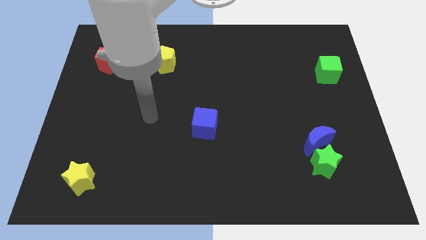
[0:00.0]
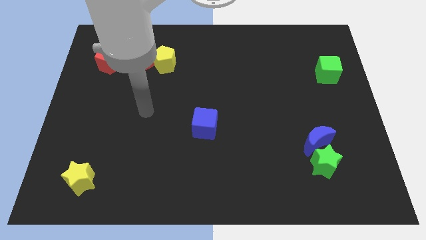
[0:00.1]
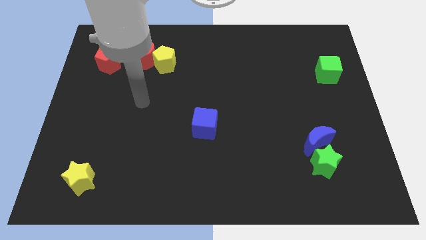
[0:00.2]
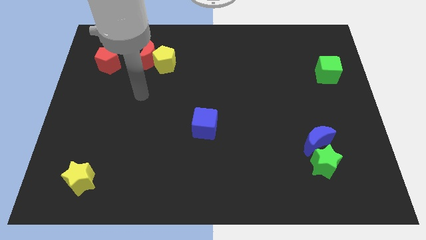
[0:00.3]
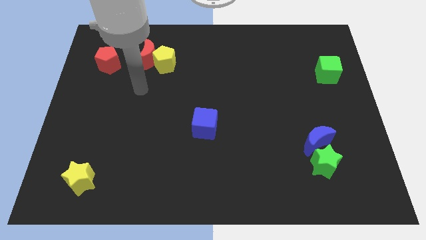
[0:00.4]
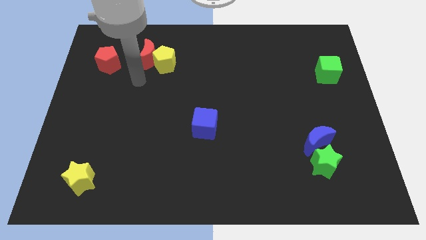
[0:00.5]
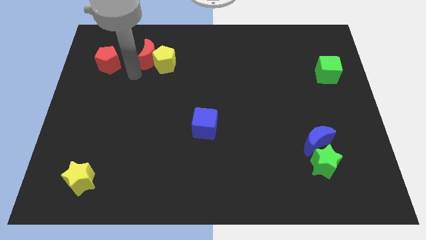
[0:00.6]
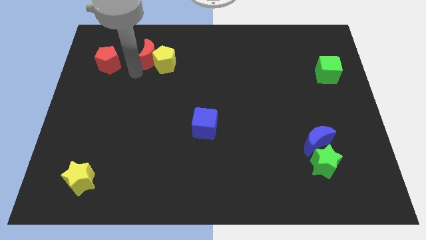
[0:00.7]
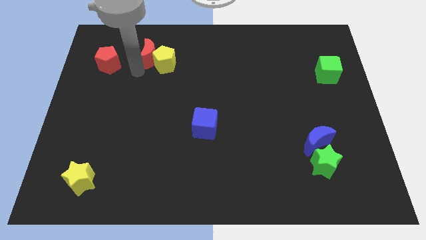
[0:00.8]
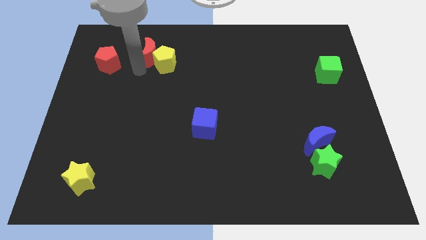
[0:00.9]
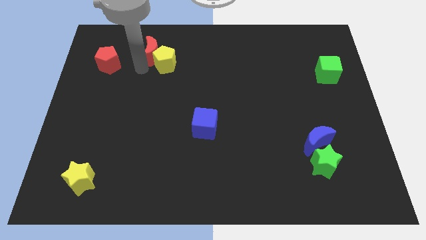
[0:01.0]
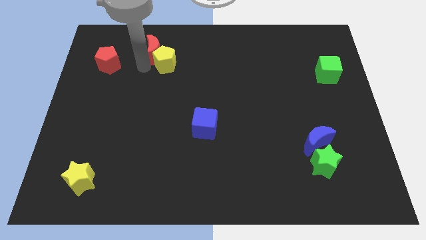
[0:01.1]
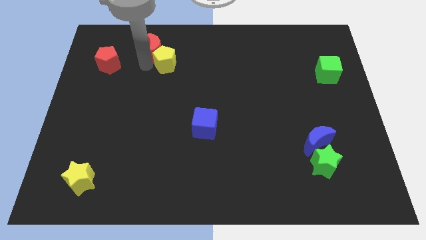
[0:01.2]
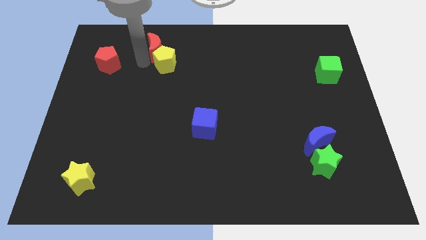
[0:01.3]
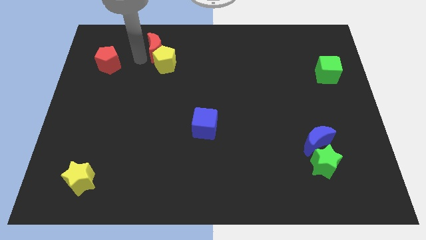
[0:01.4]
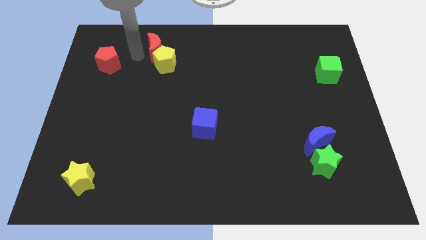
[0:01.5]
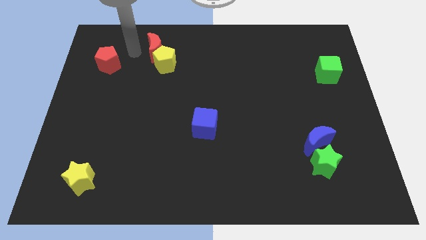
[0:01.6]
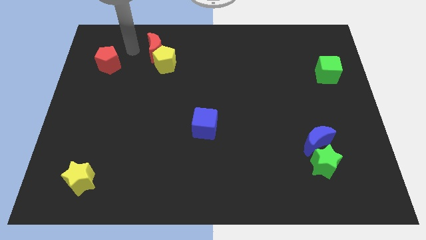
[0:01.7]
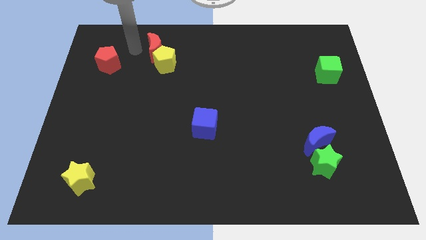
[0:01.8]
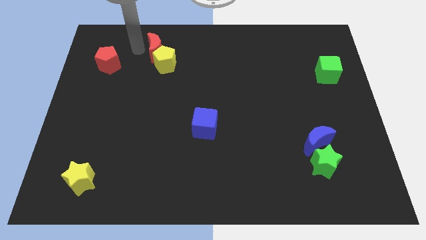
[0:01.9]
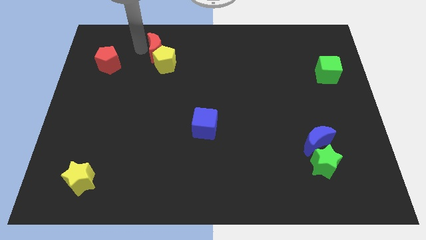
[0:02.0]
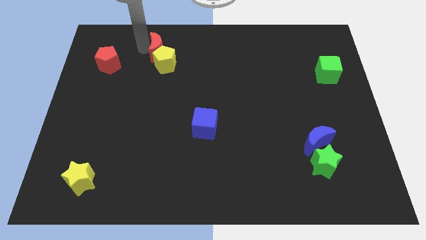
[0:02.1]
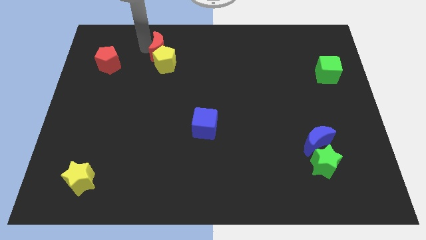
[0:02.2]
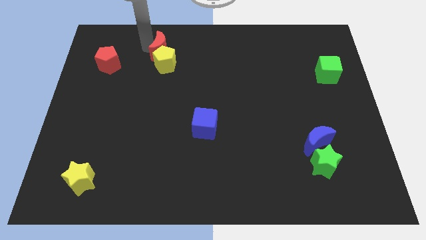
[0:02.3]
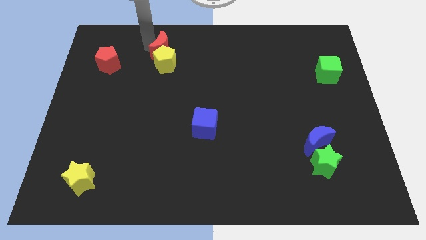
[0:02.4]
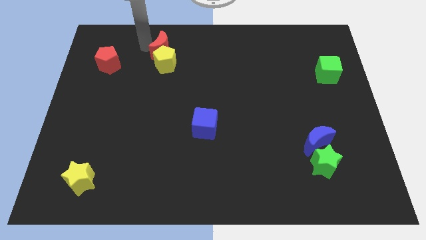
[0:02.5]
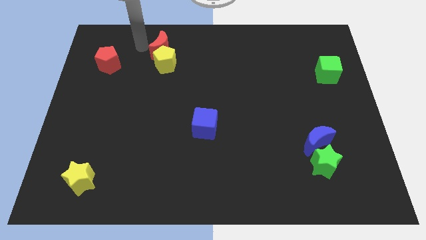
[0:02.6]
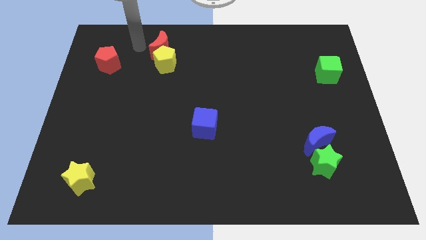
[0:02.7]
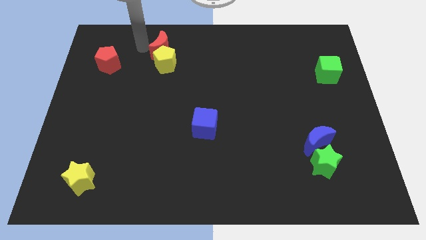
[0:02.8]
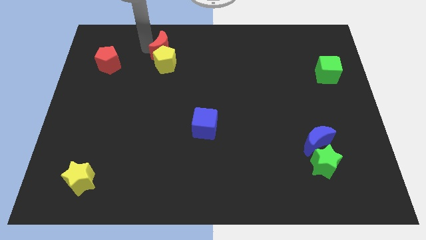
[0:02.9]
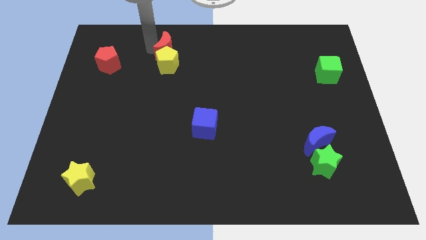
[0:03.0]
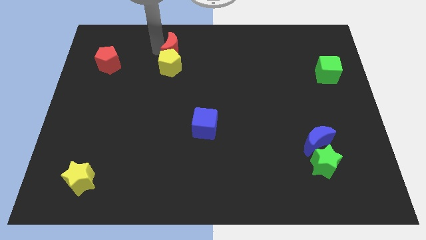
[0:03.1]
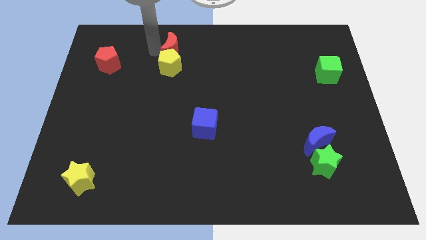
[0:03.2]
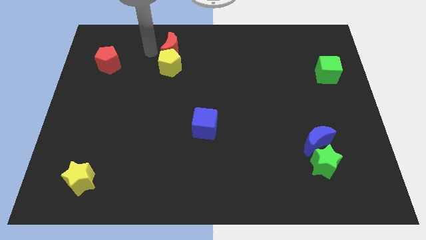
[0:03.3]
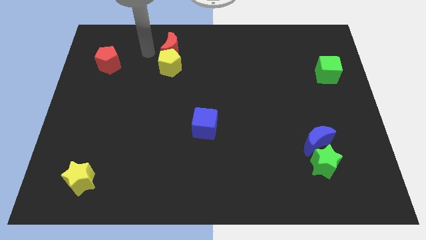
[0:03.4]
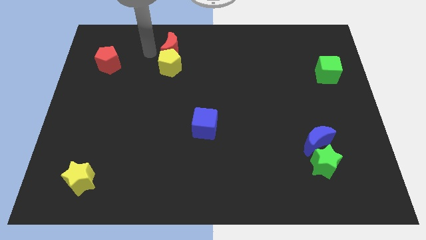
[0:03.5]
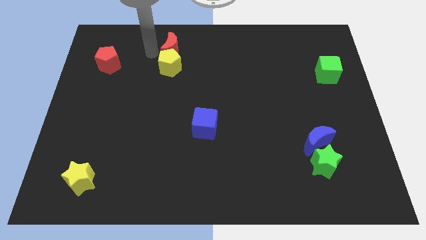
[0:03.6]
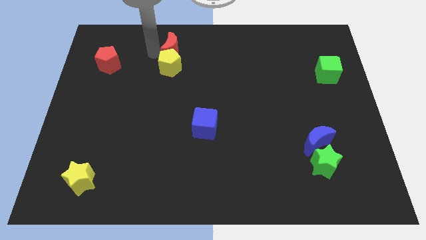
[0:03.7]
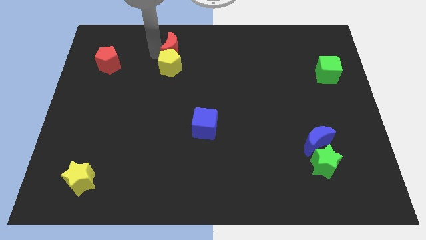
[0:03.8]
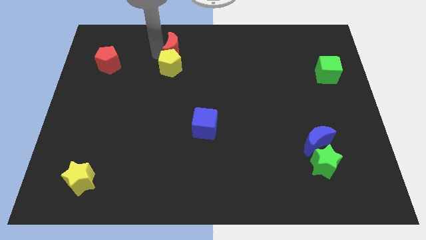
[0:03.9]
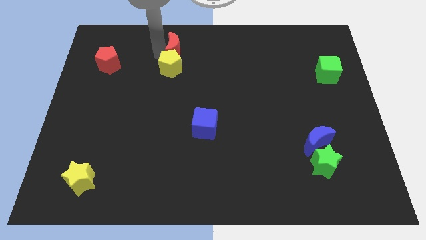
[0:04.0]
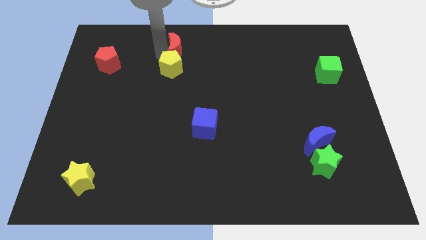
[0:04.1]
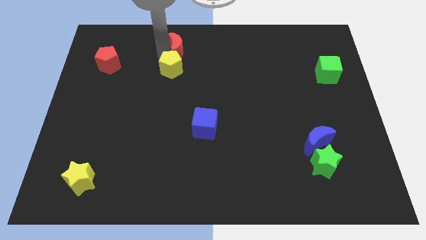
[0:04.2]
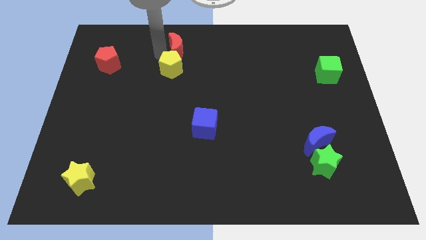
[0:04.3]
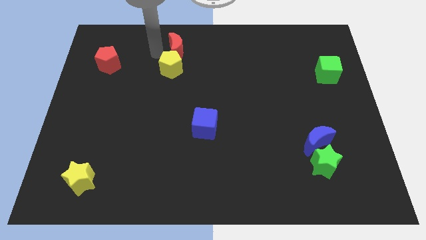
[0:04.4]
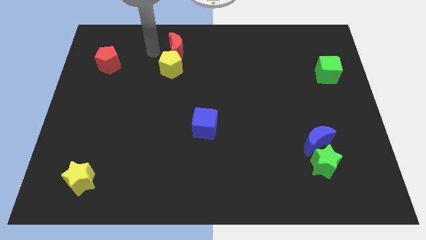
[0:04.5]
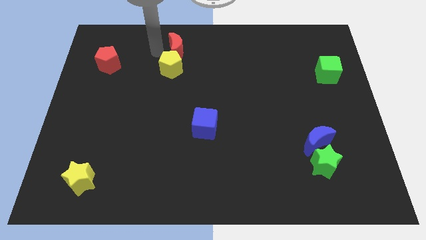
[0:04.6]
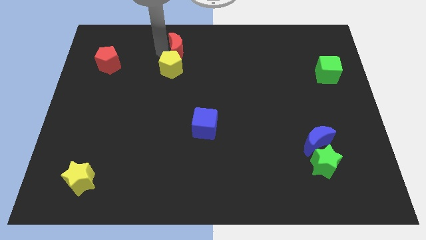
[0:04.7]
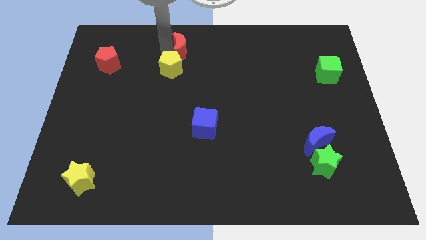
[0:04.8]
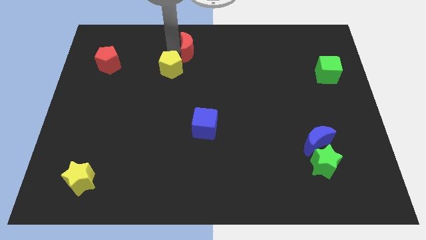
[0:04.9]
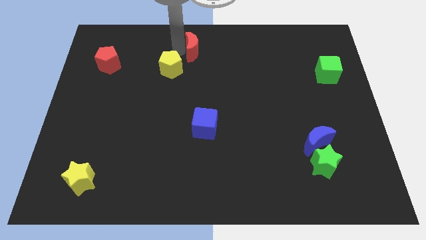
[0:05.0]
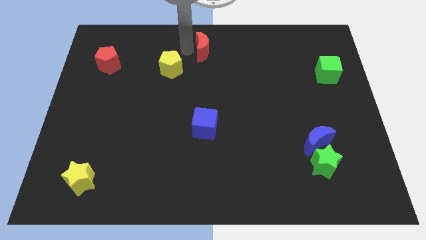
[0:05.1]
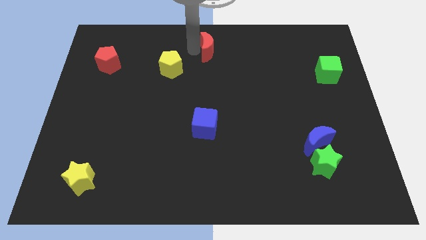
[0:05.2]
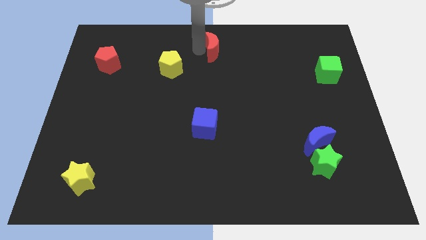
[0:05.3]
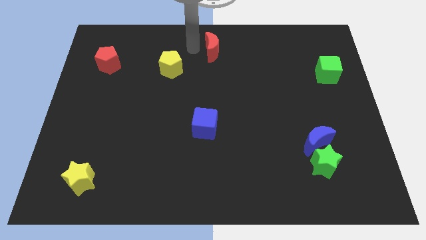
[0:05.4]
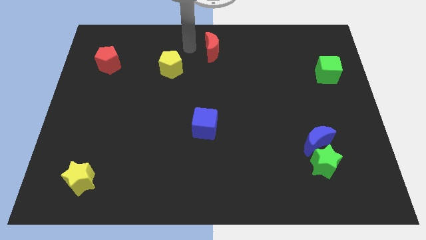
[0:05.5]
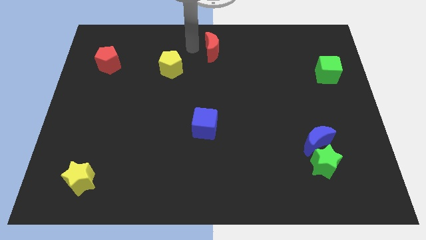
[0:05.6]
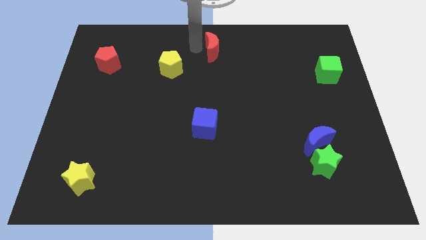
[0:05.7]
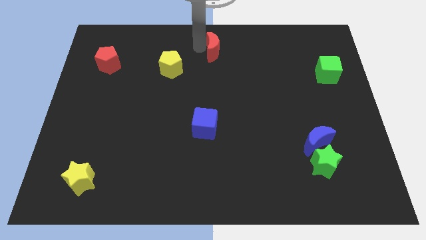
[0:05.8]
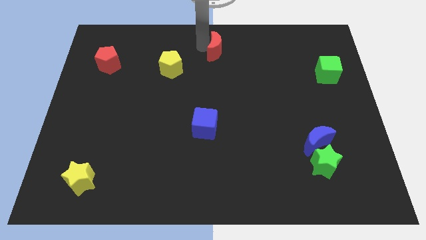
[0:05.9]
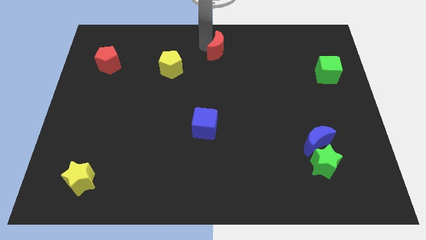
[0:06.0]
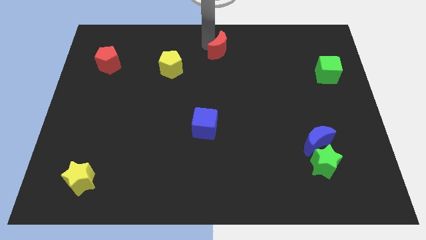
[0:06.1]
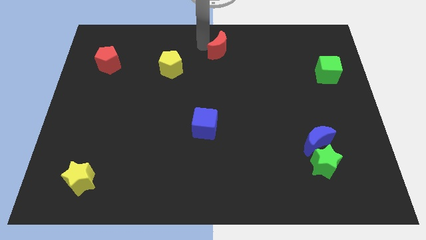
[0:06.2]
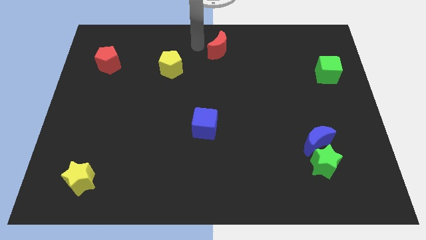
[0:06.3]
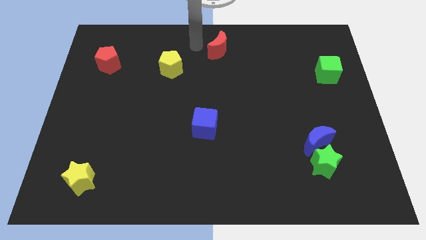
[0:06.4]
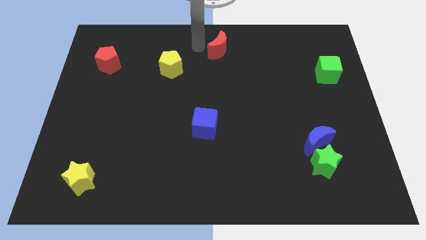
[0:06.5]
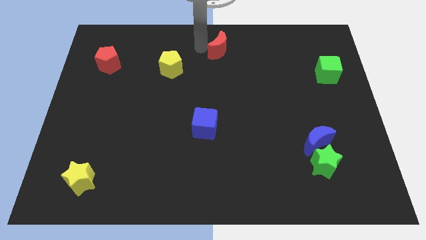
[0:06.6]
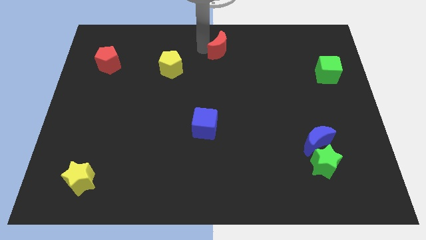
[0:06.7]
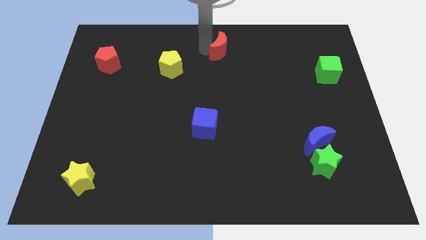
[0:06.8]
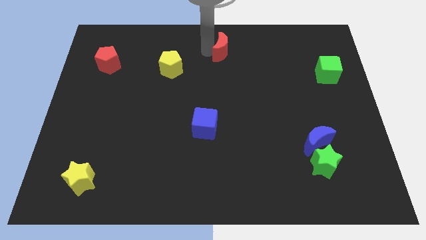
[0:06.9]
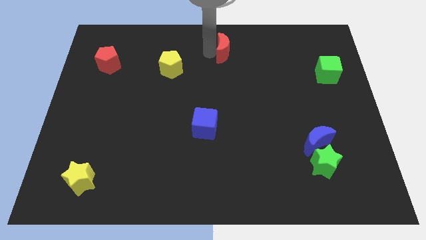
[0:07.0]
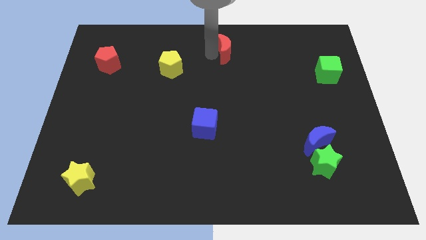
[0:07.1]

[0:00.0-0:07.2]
slide the red moon right

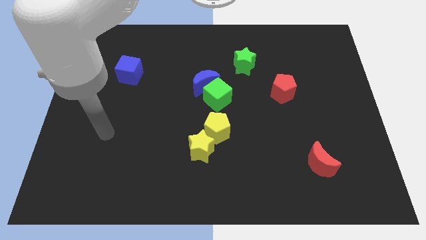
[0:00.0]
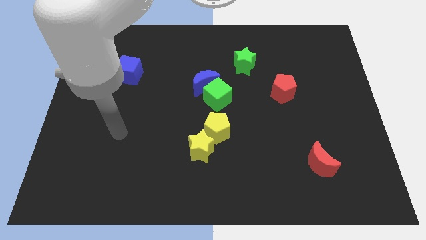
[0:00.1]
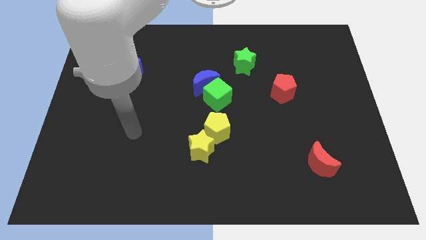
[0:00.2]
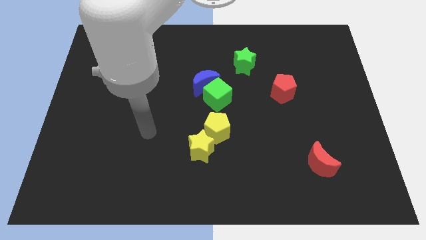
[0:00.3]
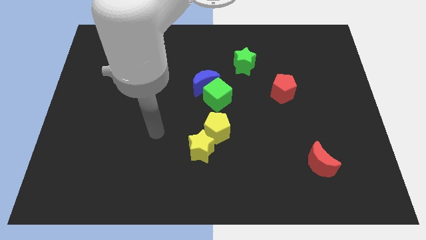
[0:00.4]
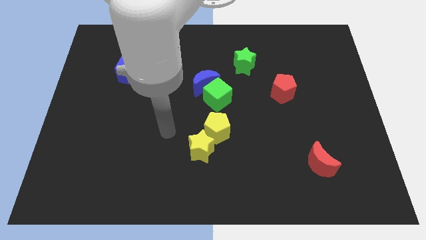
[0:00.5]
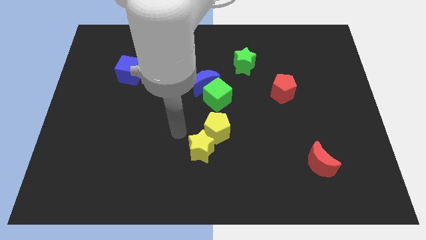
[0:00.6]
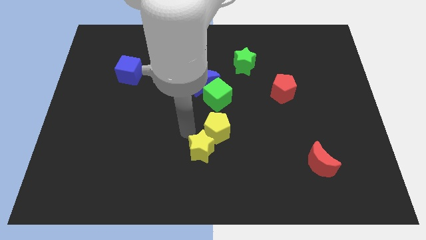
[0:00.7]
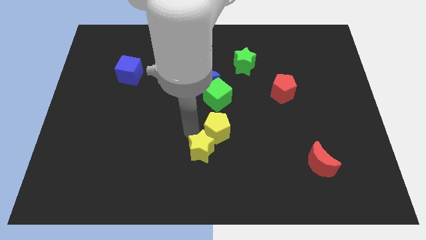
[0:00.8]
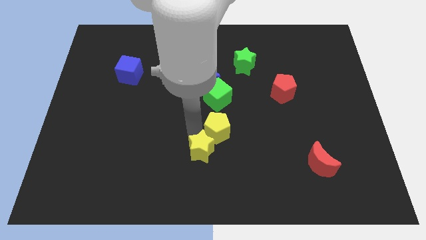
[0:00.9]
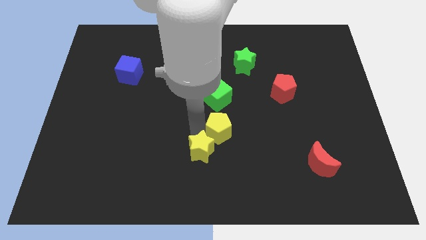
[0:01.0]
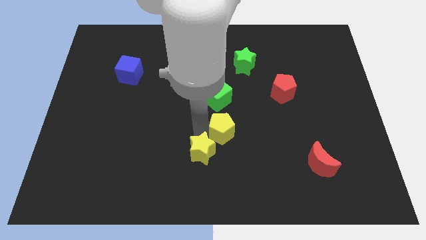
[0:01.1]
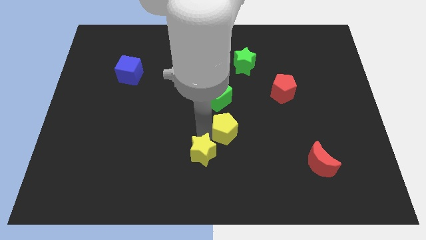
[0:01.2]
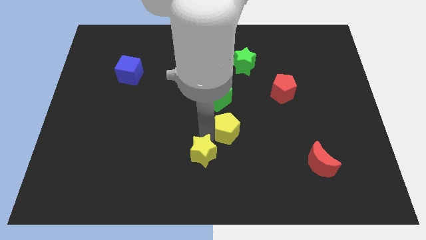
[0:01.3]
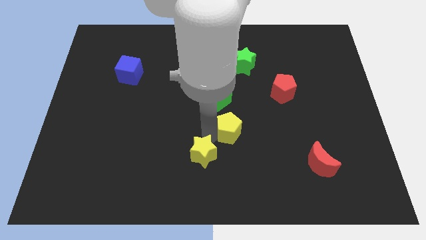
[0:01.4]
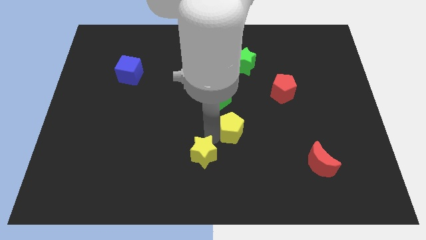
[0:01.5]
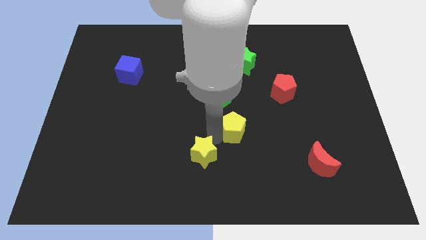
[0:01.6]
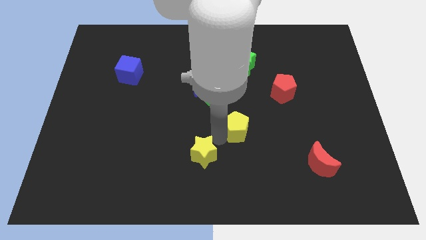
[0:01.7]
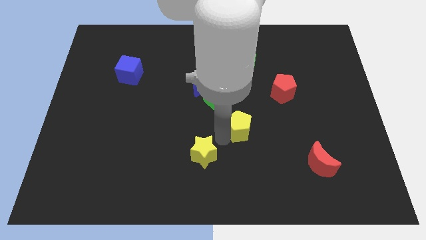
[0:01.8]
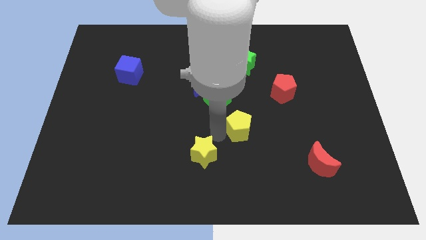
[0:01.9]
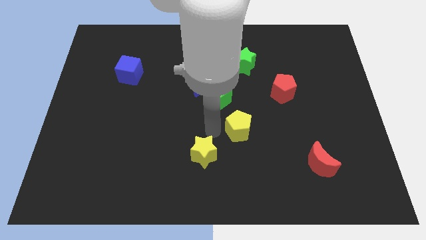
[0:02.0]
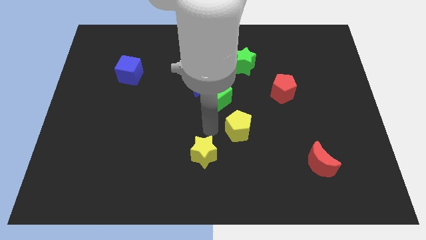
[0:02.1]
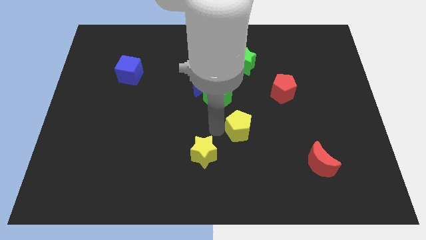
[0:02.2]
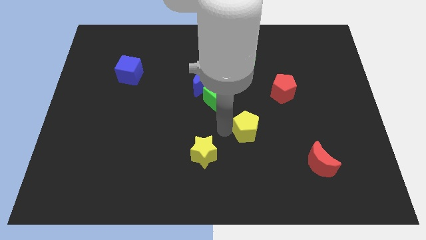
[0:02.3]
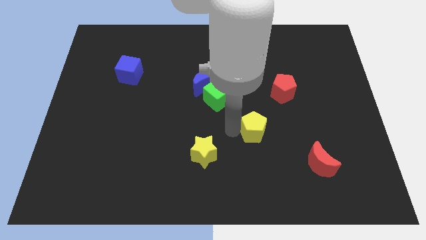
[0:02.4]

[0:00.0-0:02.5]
slide the yellow pentagon a little right
